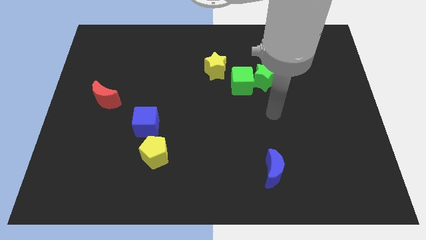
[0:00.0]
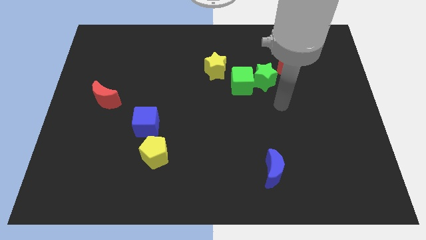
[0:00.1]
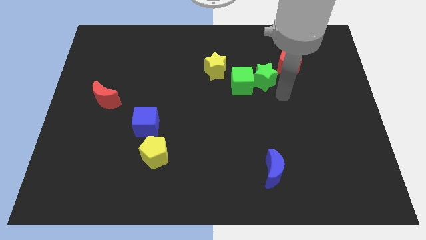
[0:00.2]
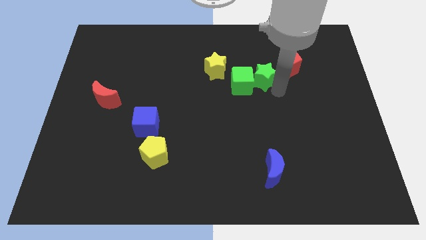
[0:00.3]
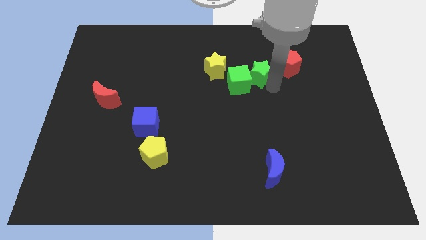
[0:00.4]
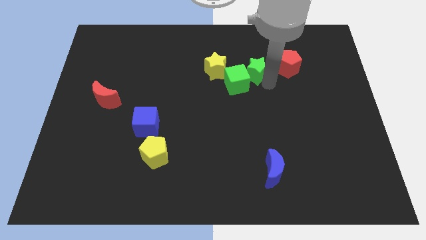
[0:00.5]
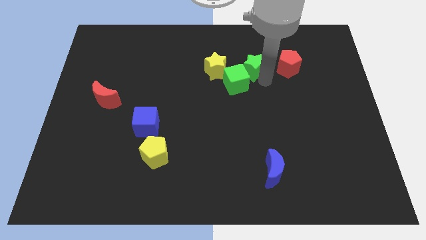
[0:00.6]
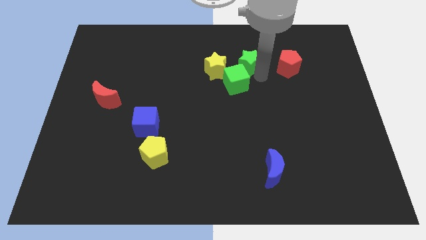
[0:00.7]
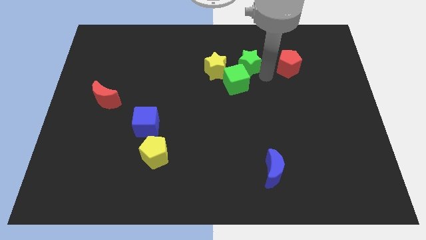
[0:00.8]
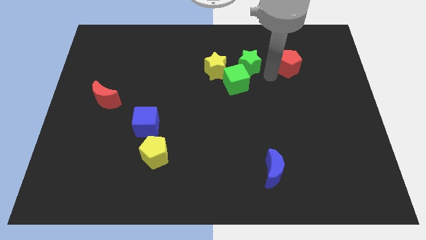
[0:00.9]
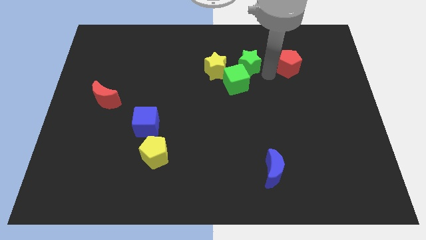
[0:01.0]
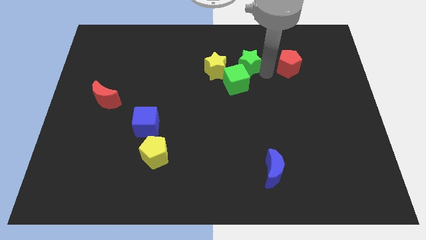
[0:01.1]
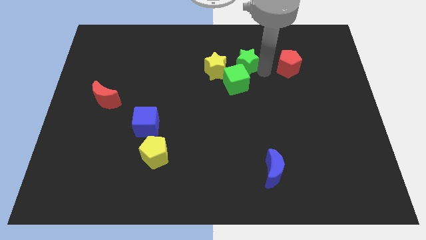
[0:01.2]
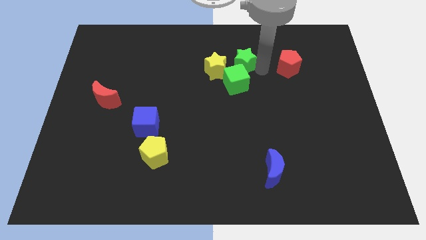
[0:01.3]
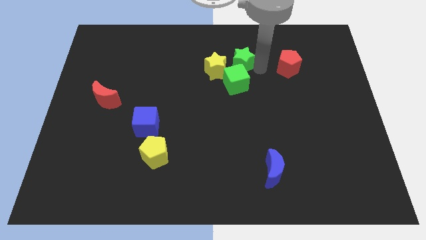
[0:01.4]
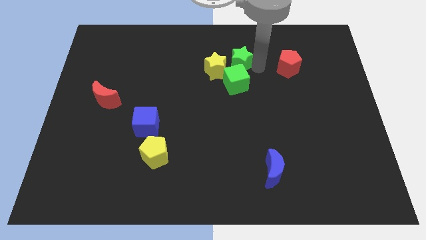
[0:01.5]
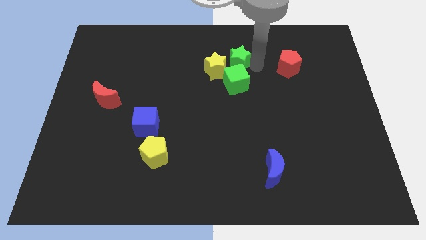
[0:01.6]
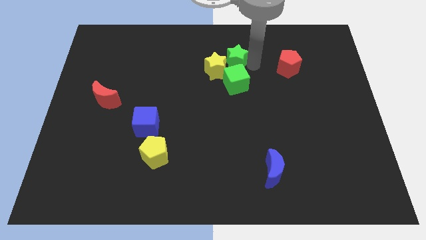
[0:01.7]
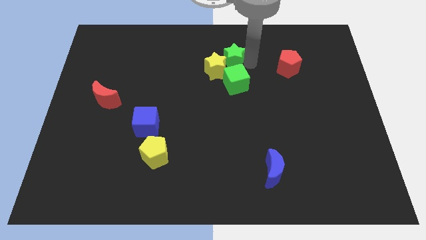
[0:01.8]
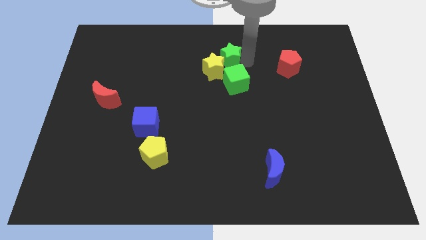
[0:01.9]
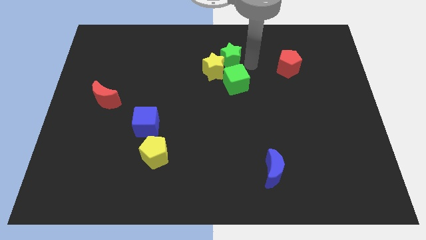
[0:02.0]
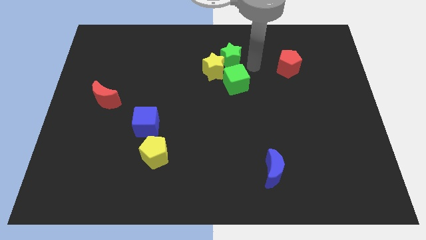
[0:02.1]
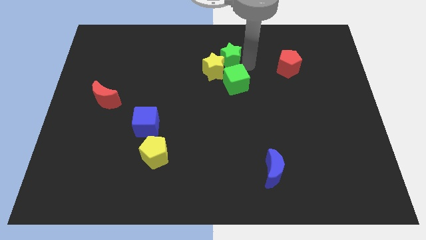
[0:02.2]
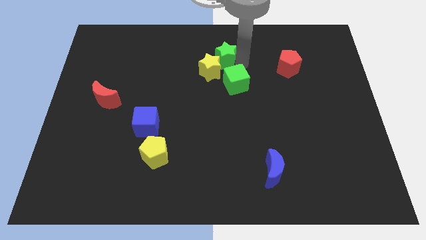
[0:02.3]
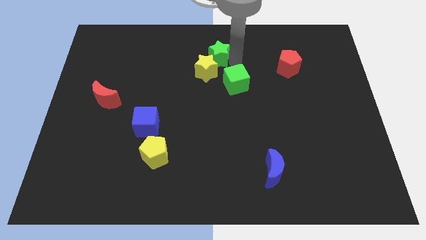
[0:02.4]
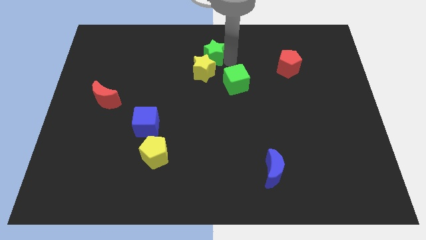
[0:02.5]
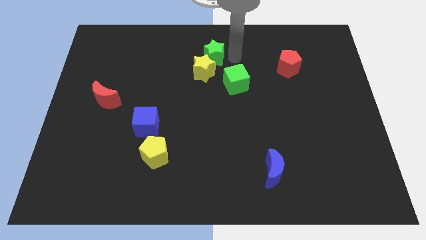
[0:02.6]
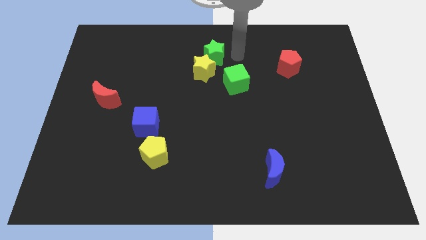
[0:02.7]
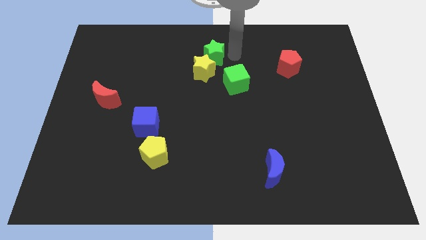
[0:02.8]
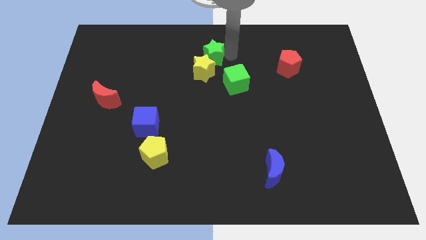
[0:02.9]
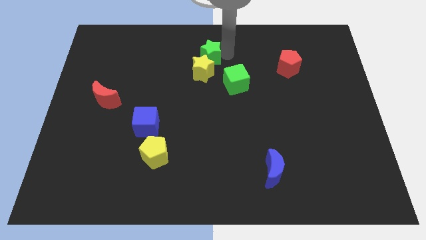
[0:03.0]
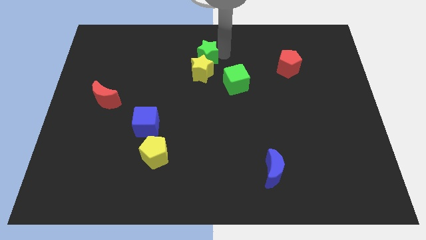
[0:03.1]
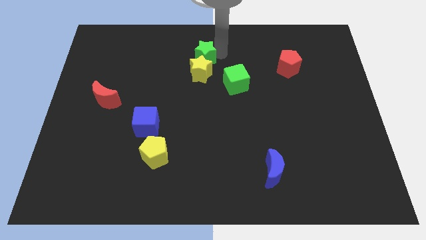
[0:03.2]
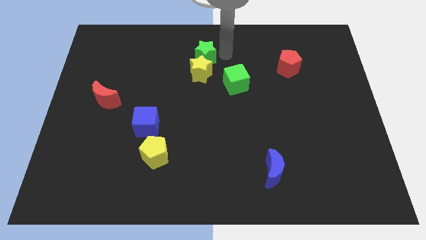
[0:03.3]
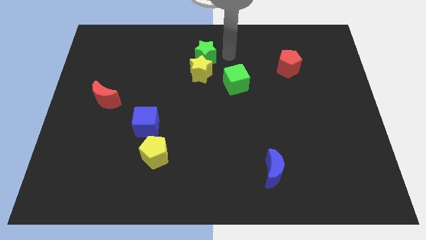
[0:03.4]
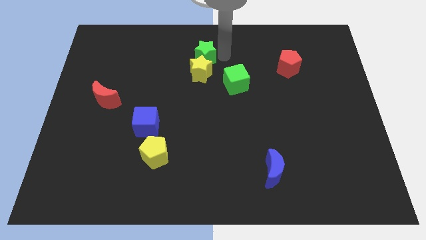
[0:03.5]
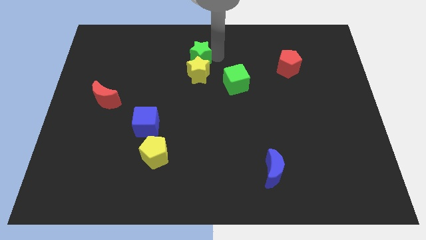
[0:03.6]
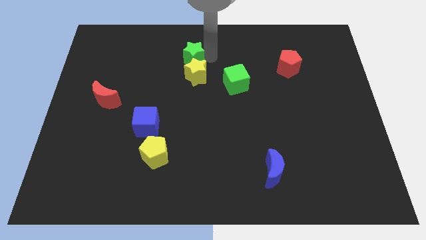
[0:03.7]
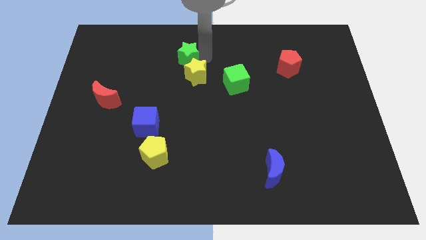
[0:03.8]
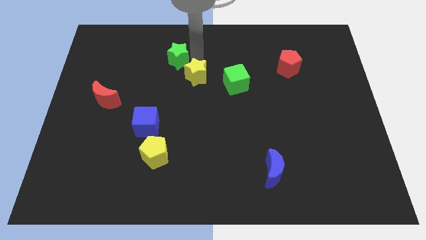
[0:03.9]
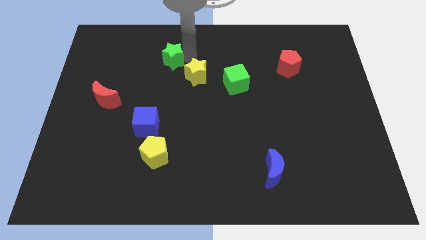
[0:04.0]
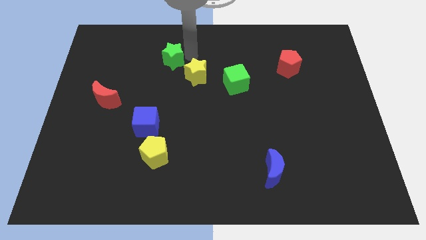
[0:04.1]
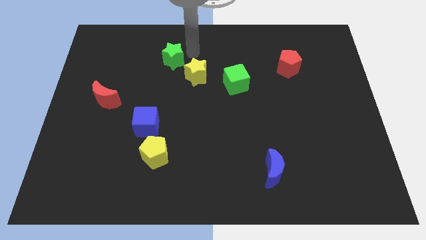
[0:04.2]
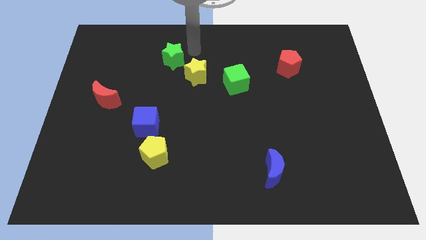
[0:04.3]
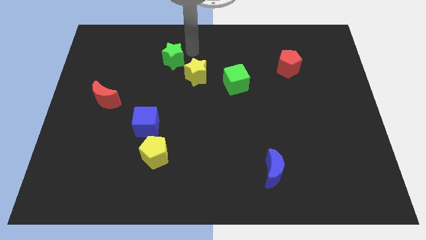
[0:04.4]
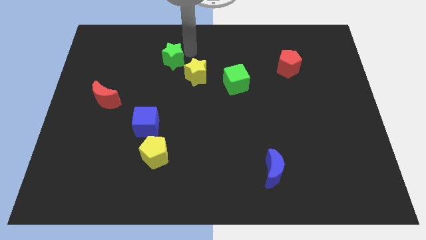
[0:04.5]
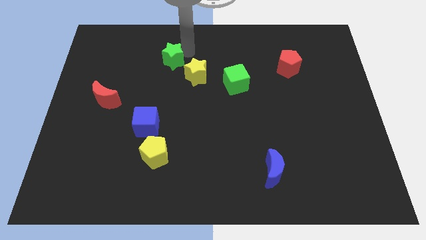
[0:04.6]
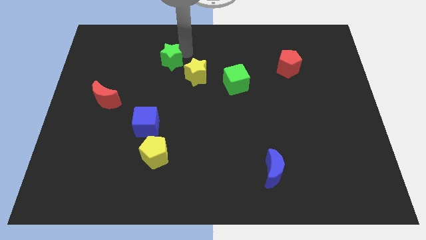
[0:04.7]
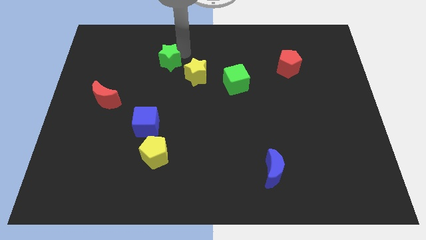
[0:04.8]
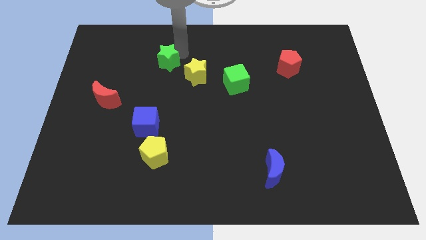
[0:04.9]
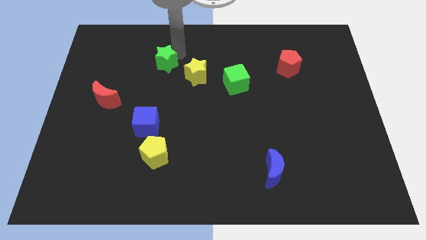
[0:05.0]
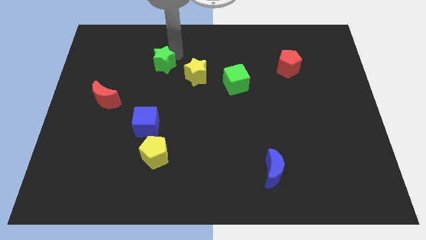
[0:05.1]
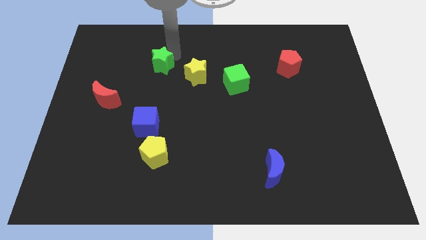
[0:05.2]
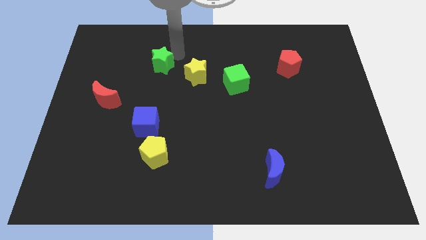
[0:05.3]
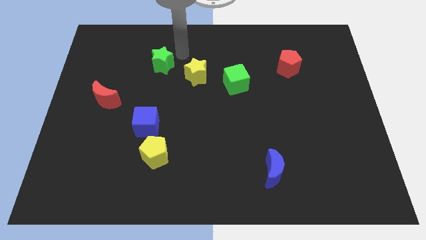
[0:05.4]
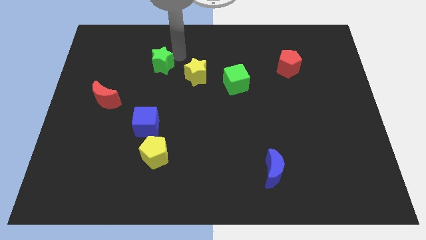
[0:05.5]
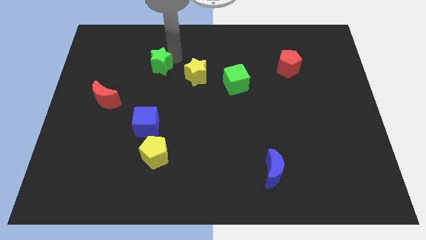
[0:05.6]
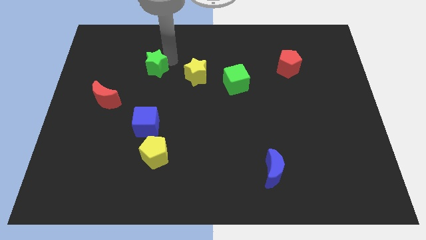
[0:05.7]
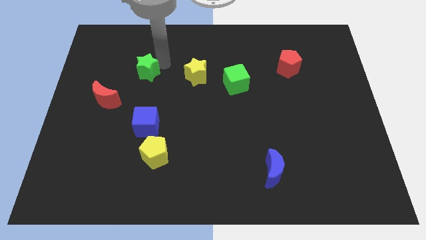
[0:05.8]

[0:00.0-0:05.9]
move the green star to the top right of the red moon

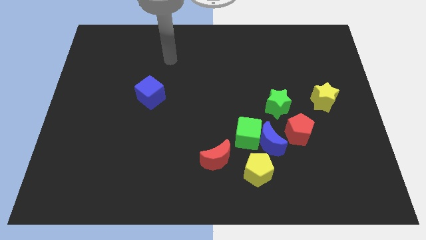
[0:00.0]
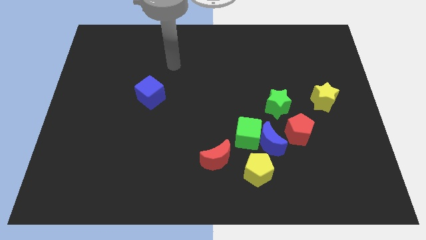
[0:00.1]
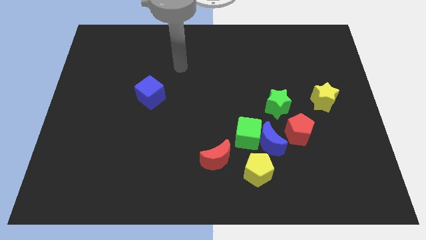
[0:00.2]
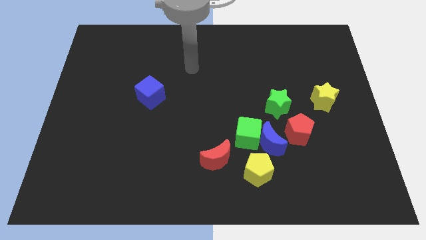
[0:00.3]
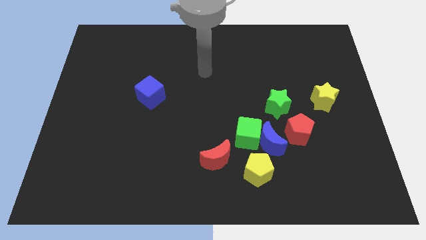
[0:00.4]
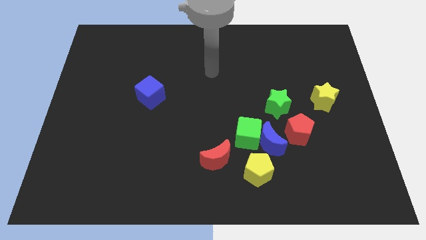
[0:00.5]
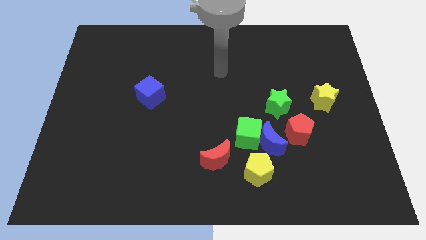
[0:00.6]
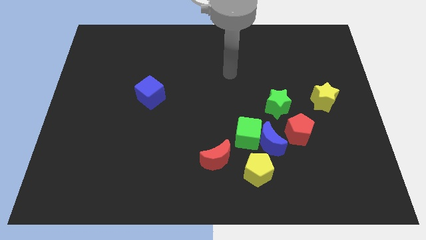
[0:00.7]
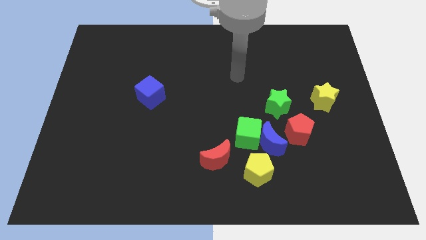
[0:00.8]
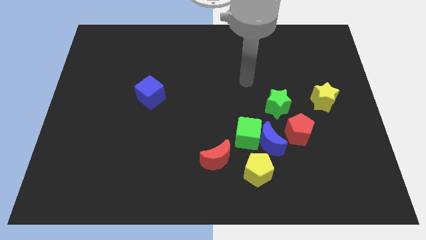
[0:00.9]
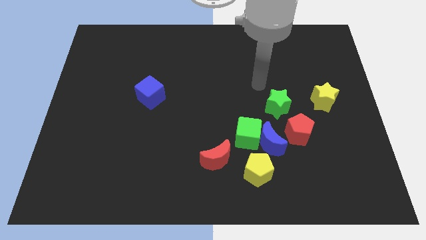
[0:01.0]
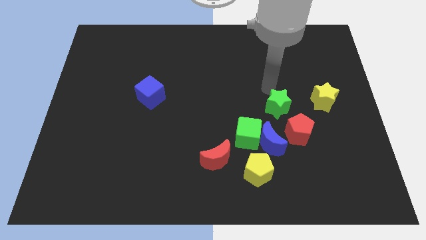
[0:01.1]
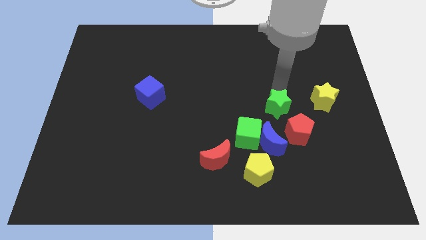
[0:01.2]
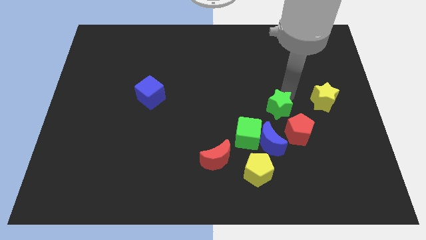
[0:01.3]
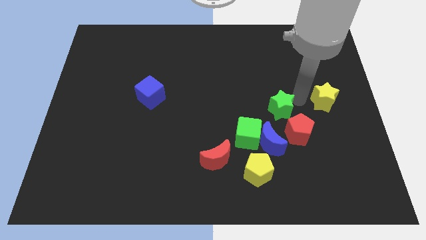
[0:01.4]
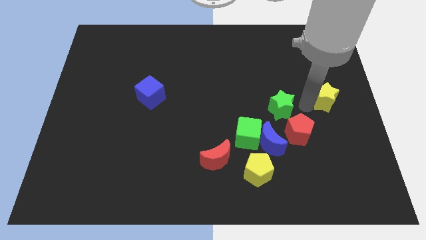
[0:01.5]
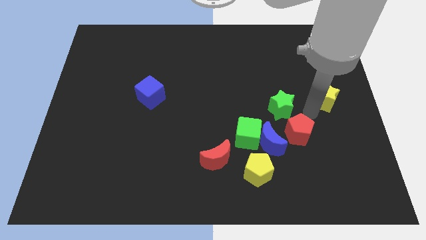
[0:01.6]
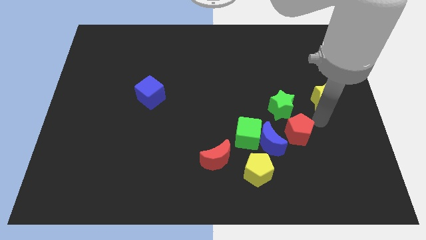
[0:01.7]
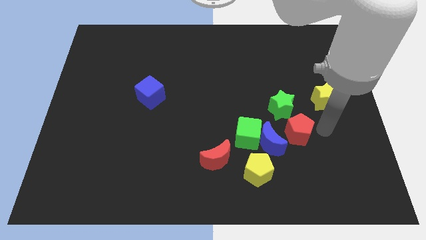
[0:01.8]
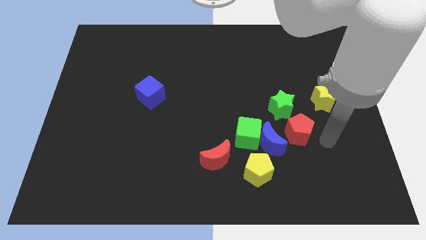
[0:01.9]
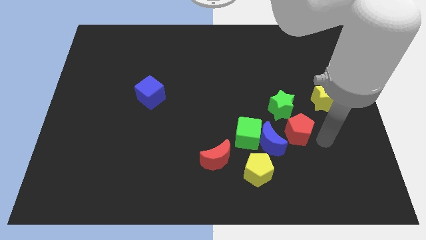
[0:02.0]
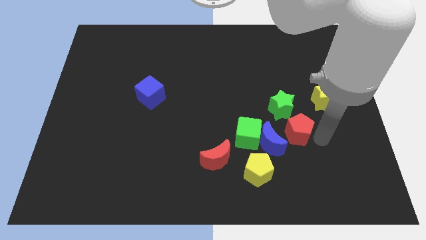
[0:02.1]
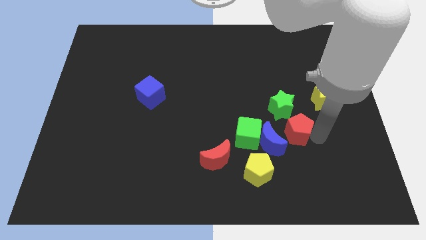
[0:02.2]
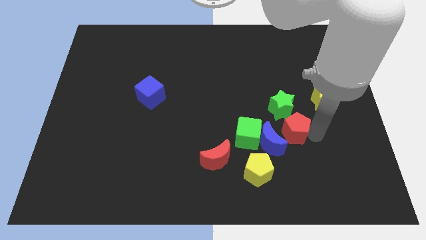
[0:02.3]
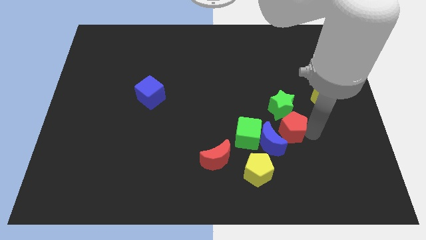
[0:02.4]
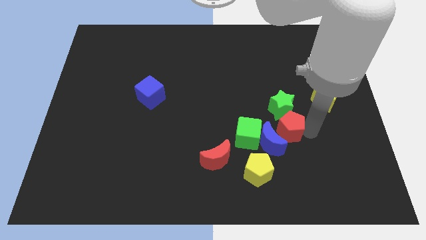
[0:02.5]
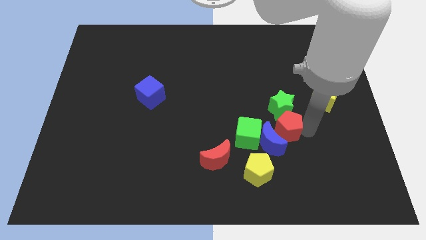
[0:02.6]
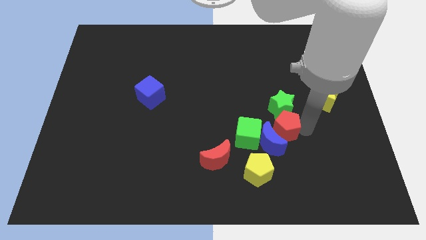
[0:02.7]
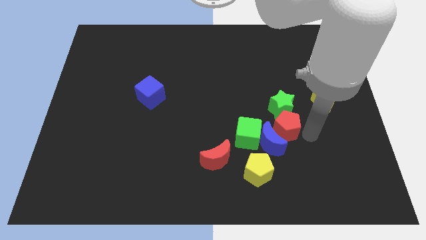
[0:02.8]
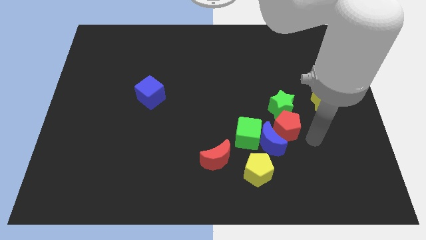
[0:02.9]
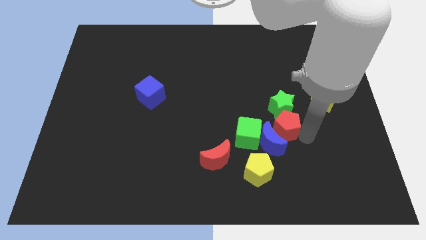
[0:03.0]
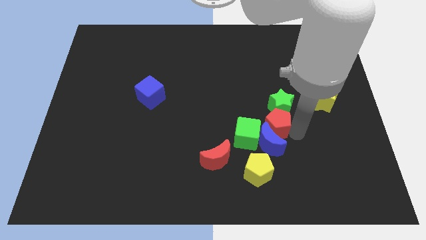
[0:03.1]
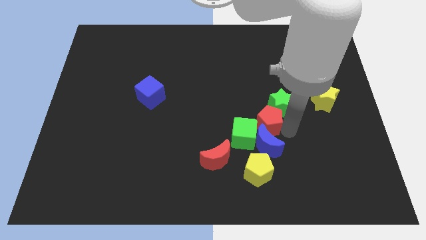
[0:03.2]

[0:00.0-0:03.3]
move the red pentagon just left of the green star
